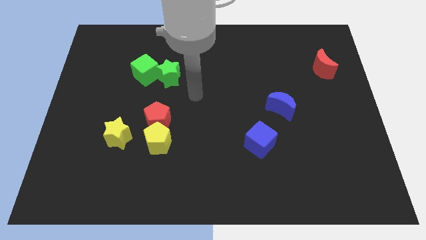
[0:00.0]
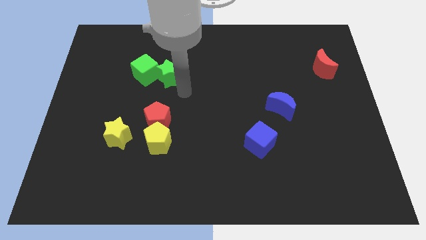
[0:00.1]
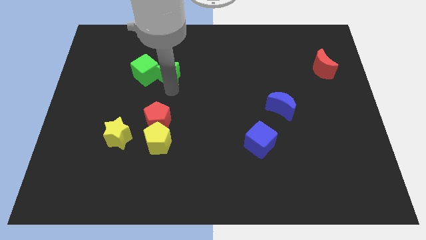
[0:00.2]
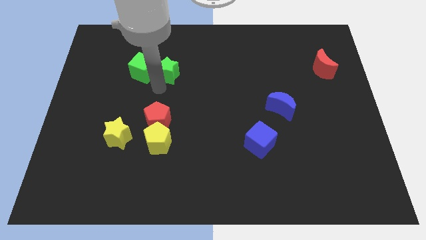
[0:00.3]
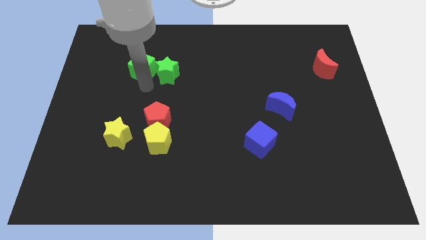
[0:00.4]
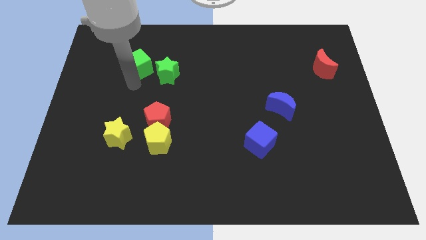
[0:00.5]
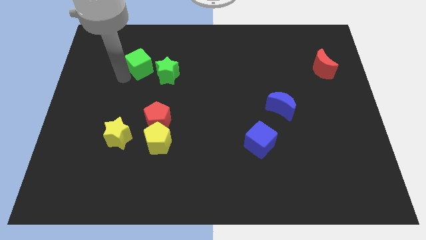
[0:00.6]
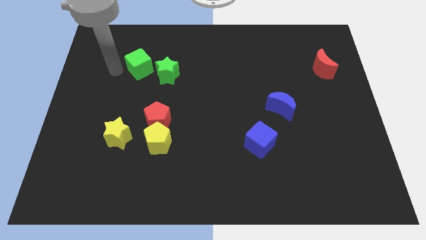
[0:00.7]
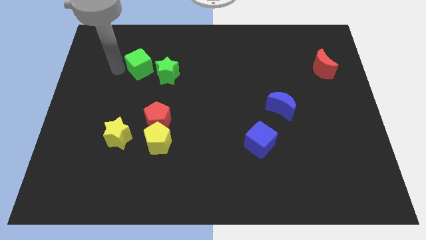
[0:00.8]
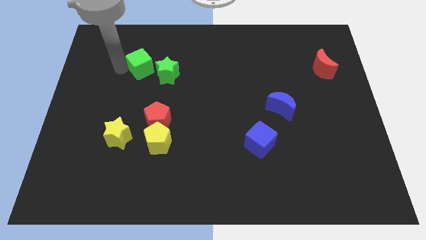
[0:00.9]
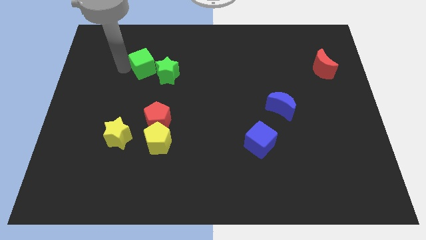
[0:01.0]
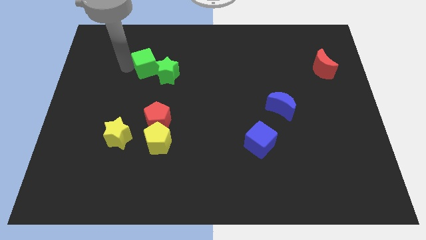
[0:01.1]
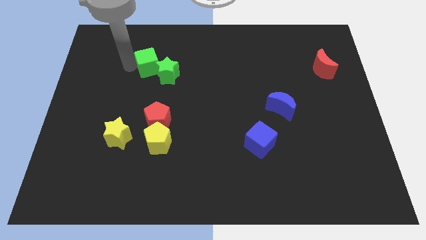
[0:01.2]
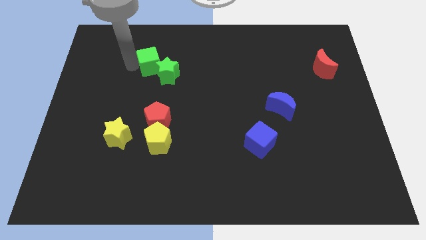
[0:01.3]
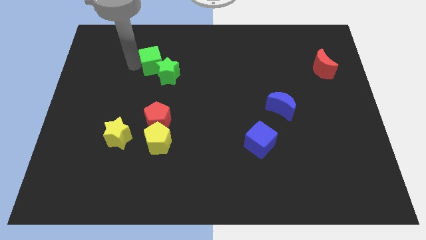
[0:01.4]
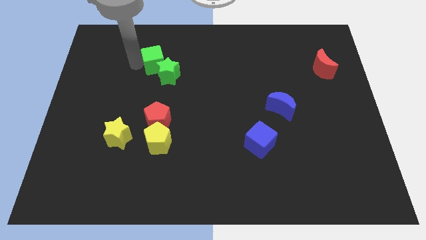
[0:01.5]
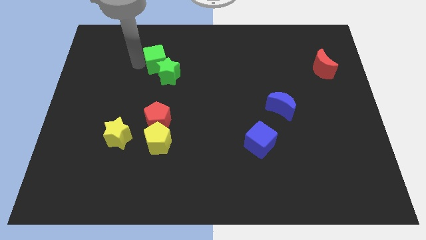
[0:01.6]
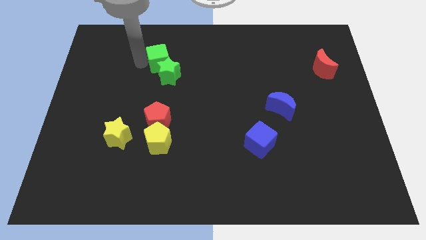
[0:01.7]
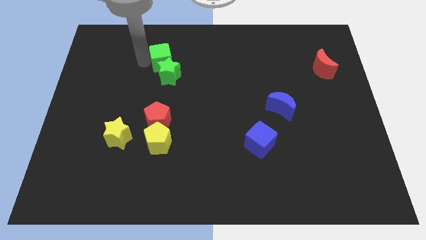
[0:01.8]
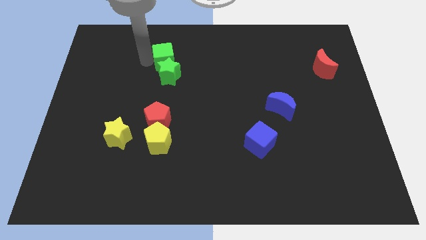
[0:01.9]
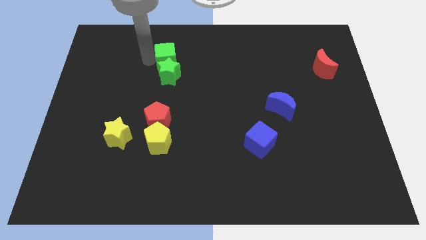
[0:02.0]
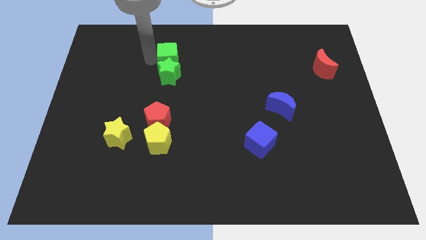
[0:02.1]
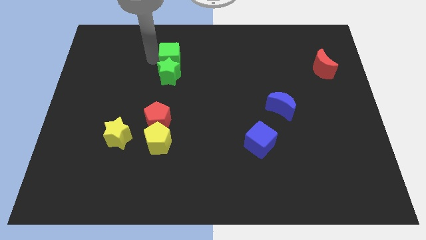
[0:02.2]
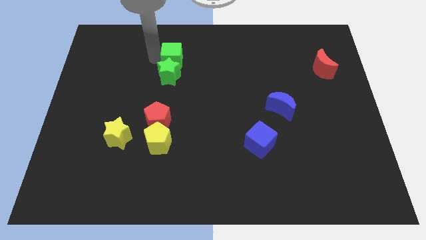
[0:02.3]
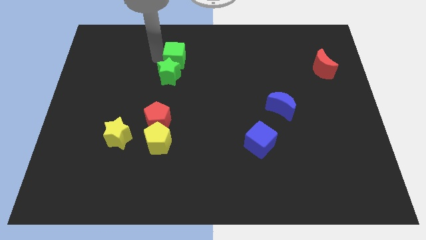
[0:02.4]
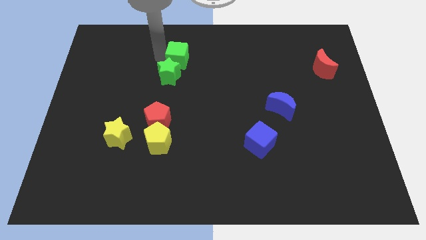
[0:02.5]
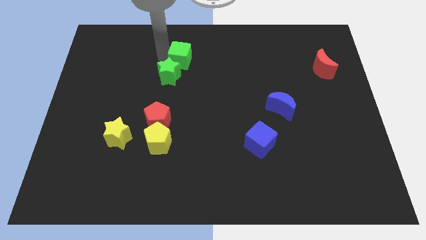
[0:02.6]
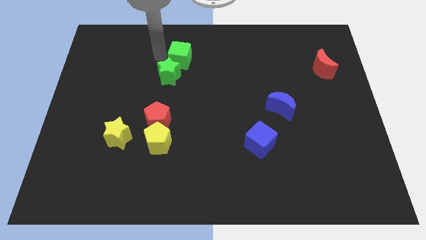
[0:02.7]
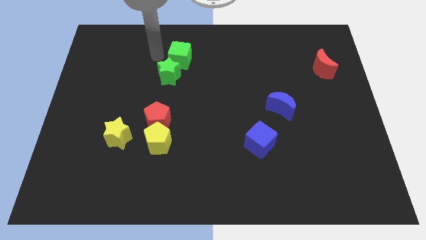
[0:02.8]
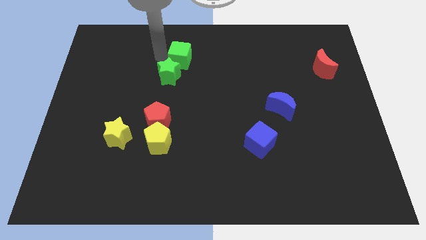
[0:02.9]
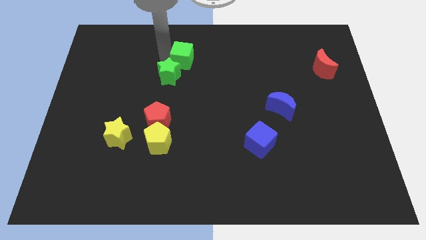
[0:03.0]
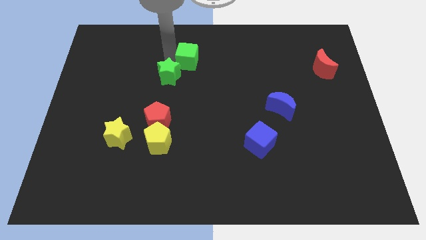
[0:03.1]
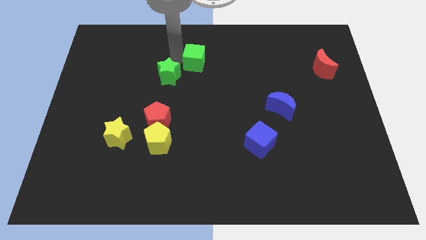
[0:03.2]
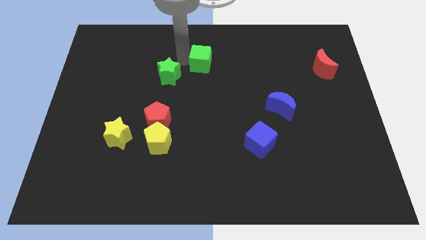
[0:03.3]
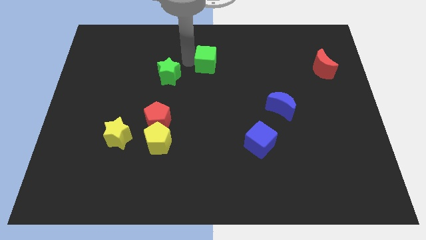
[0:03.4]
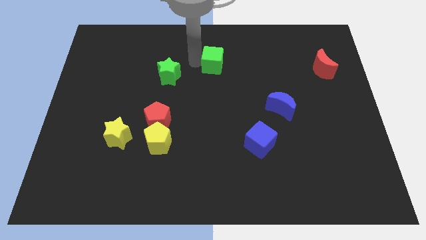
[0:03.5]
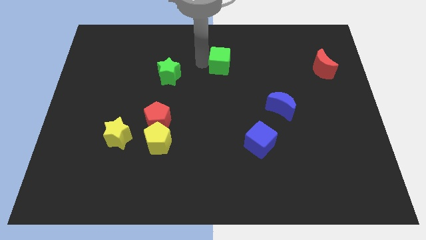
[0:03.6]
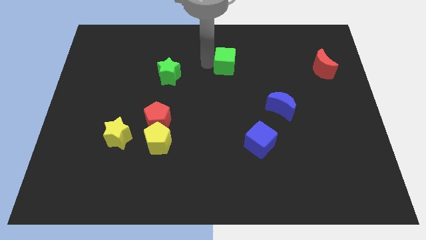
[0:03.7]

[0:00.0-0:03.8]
push the green cube to the right

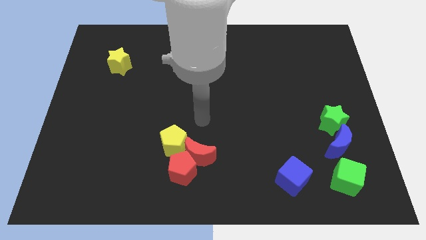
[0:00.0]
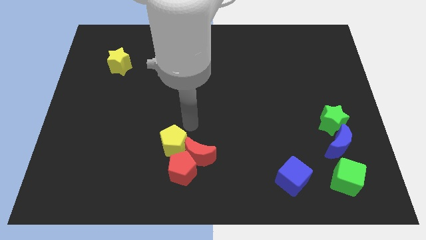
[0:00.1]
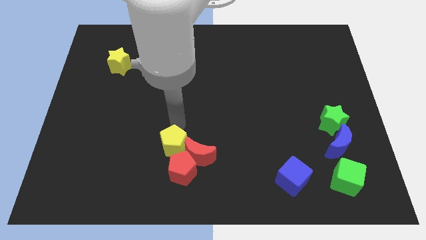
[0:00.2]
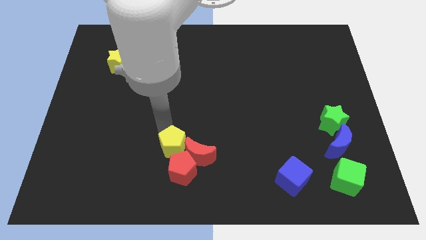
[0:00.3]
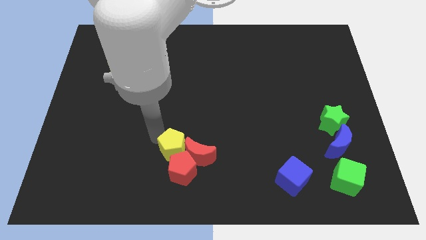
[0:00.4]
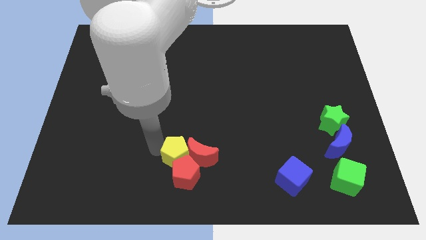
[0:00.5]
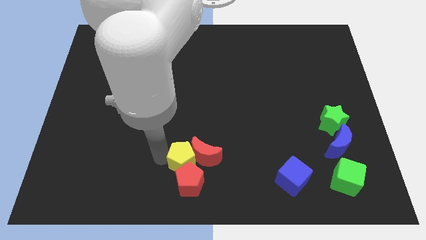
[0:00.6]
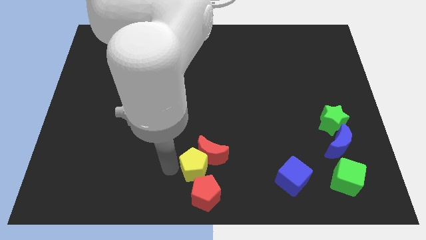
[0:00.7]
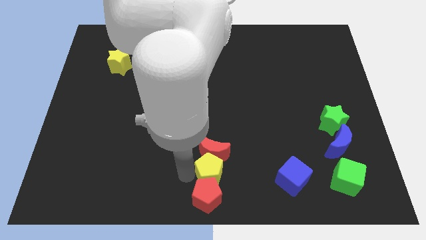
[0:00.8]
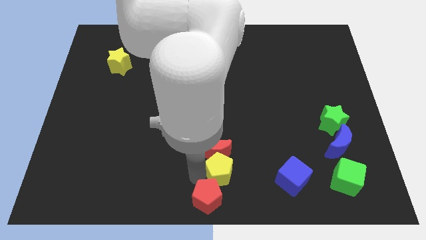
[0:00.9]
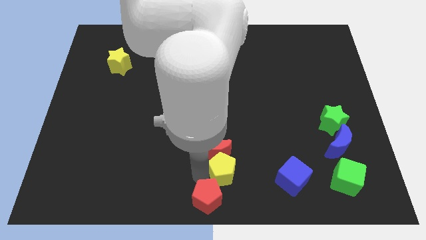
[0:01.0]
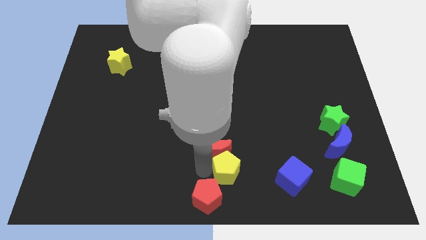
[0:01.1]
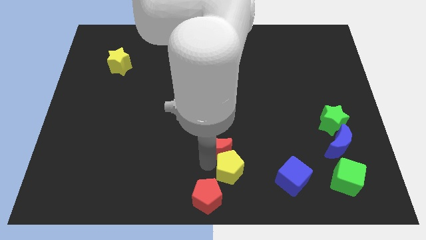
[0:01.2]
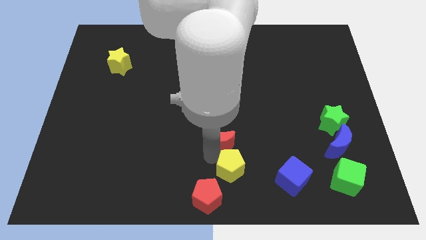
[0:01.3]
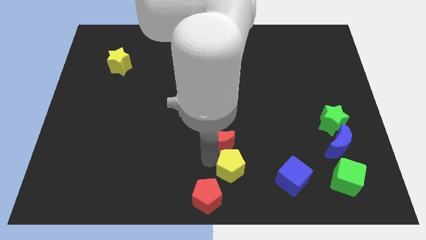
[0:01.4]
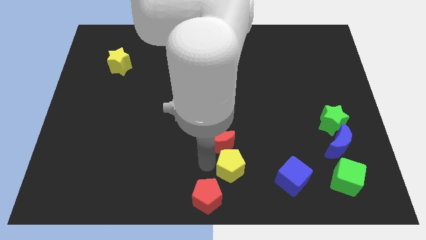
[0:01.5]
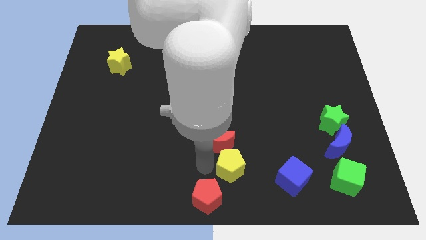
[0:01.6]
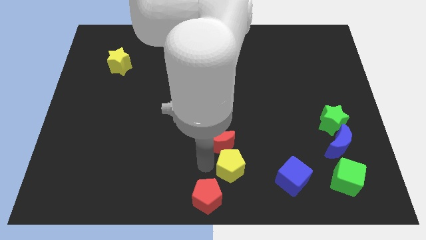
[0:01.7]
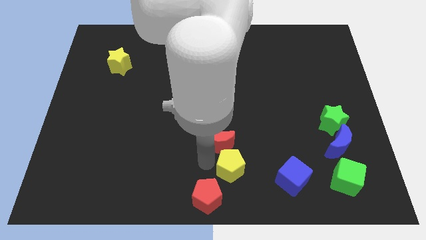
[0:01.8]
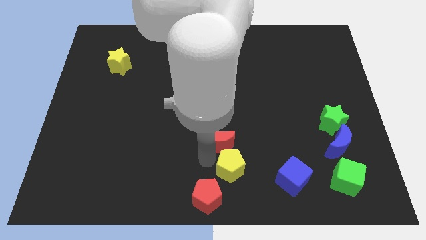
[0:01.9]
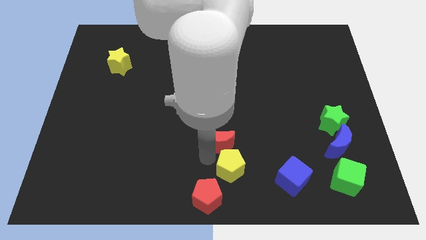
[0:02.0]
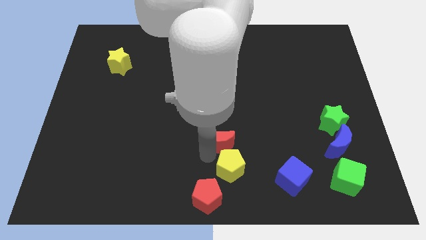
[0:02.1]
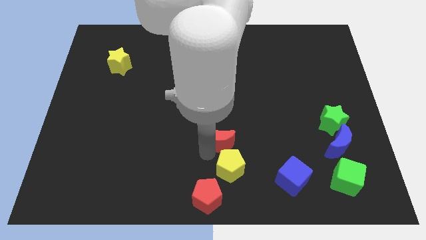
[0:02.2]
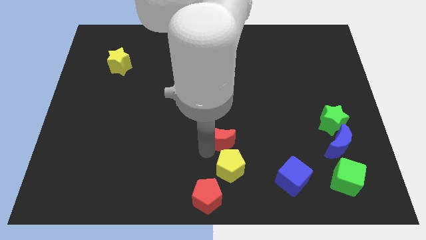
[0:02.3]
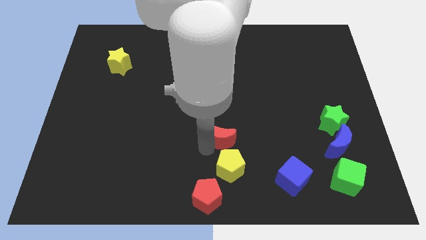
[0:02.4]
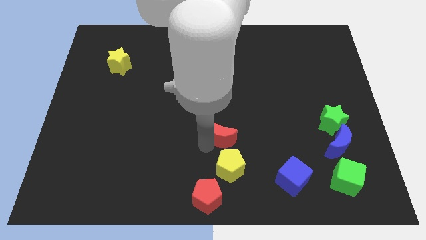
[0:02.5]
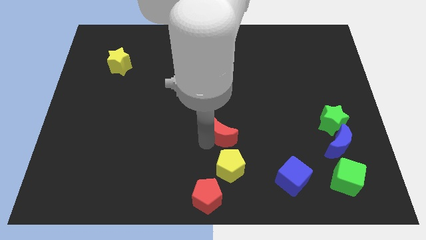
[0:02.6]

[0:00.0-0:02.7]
slide the red moon up and then to the right a little bit

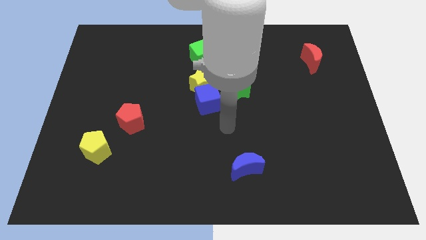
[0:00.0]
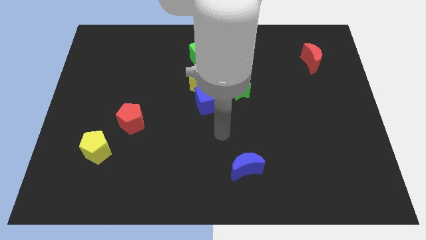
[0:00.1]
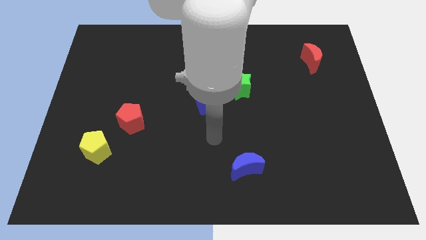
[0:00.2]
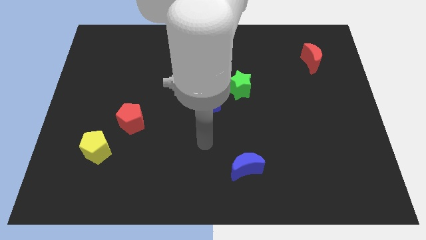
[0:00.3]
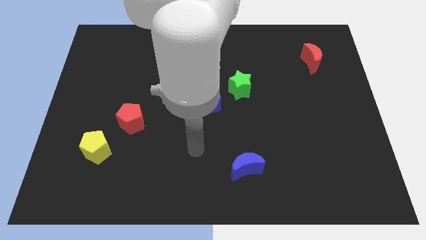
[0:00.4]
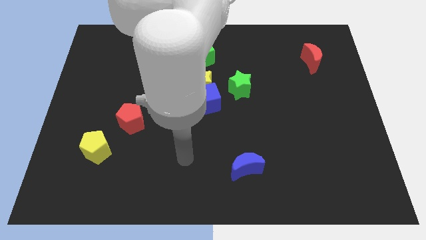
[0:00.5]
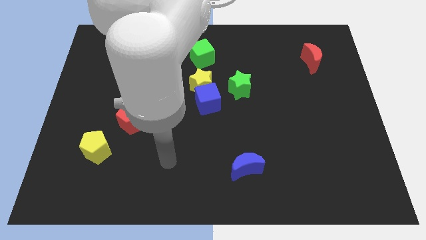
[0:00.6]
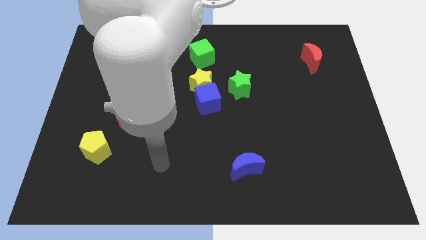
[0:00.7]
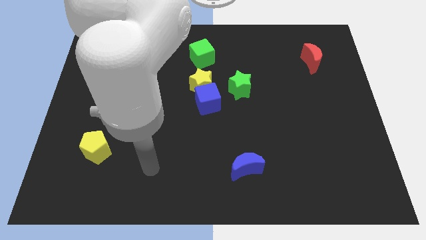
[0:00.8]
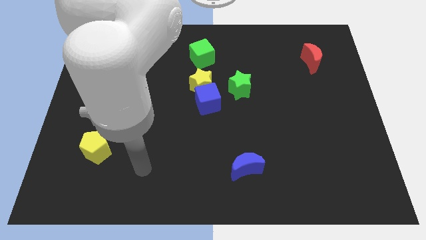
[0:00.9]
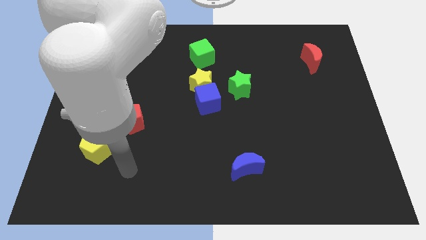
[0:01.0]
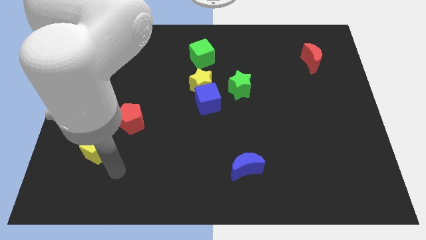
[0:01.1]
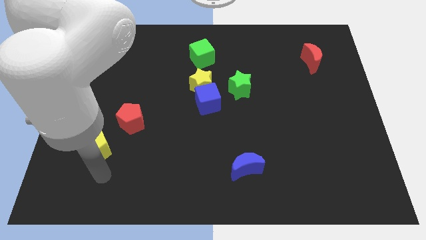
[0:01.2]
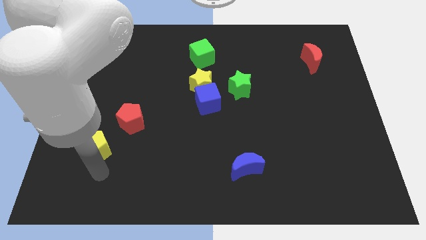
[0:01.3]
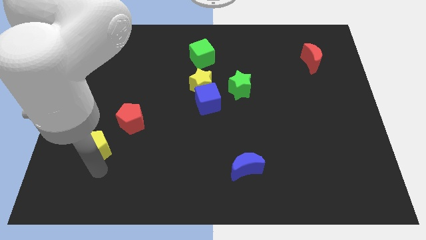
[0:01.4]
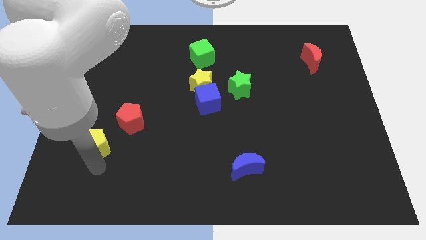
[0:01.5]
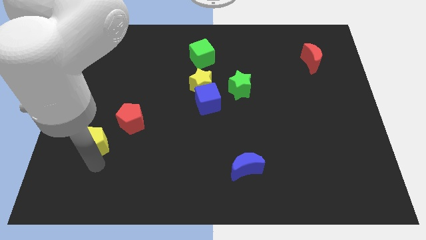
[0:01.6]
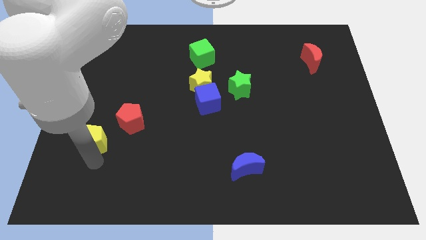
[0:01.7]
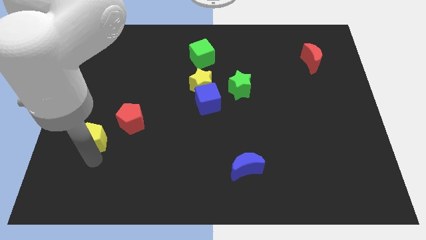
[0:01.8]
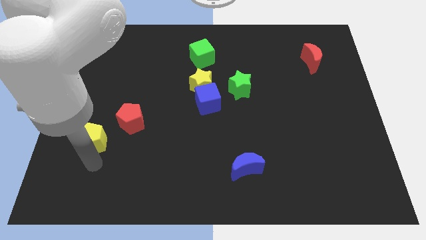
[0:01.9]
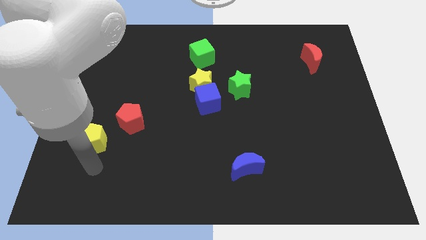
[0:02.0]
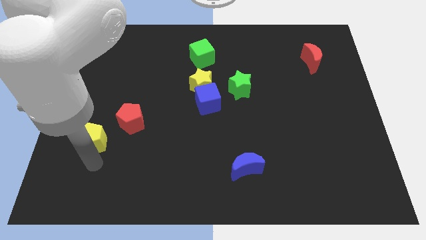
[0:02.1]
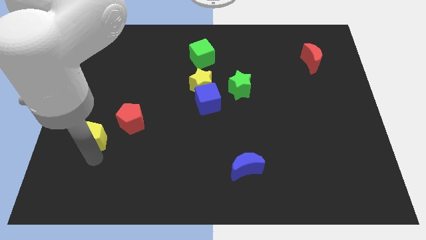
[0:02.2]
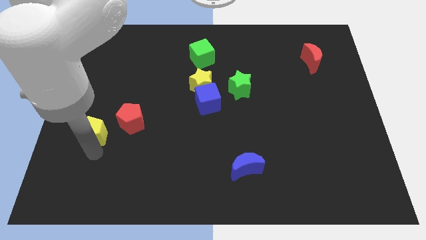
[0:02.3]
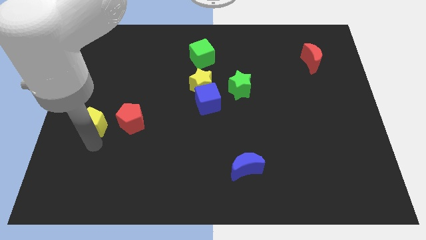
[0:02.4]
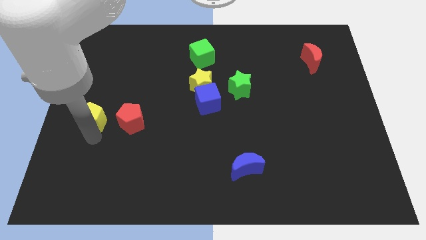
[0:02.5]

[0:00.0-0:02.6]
push the yellow pentagon a little bit up
